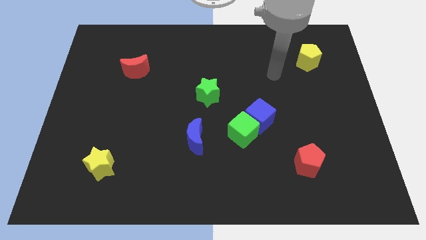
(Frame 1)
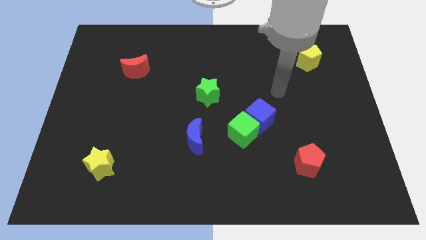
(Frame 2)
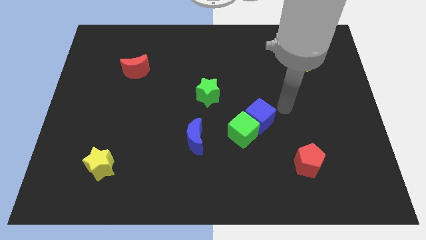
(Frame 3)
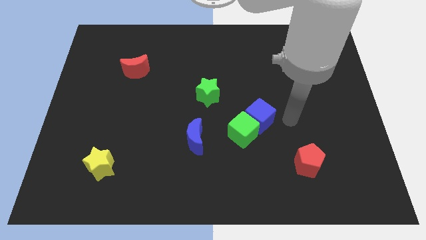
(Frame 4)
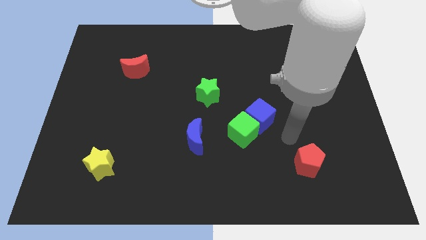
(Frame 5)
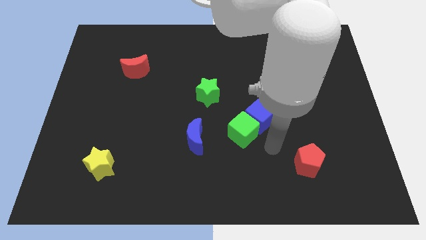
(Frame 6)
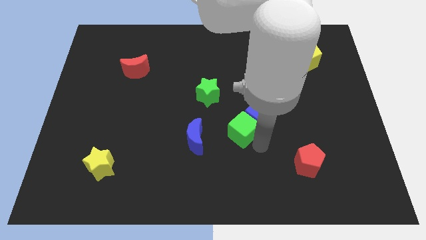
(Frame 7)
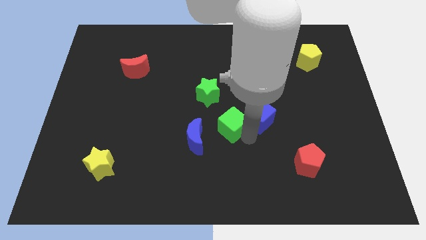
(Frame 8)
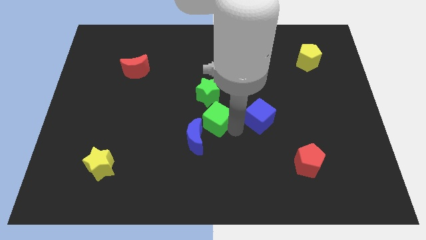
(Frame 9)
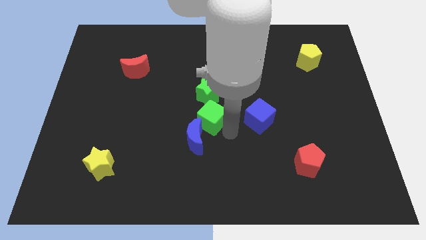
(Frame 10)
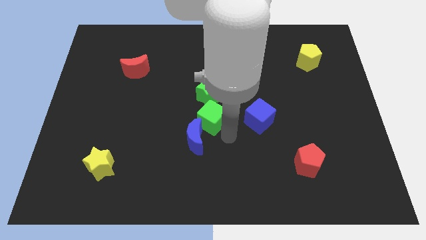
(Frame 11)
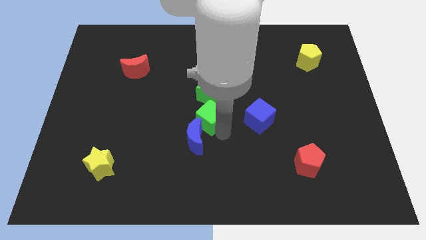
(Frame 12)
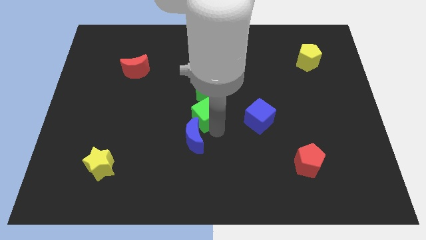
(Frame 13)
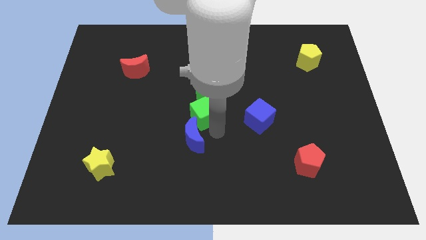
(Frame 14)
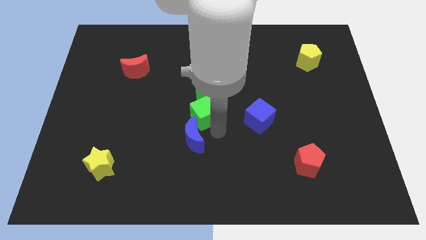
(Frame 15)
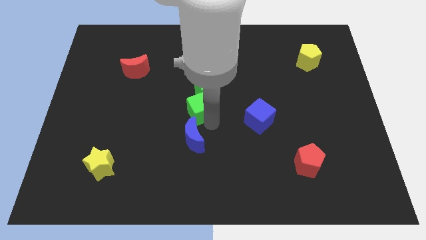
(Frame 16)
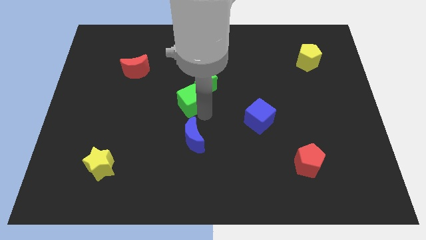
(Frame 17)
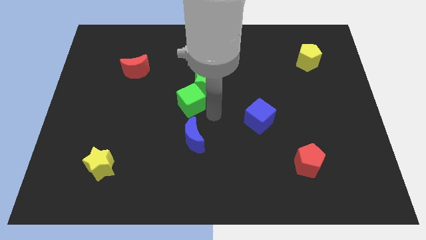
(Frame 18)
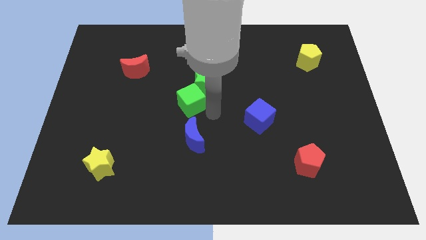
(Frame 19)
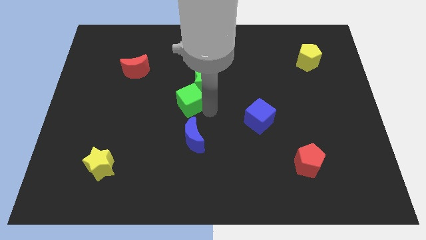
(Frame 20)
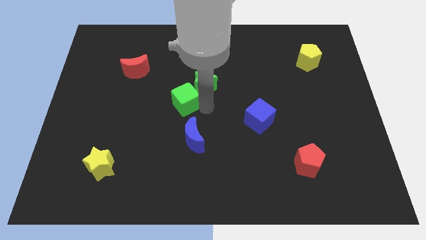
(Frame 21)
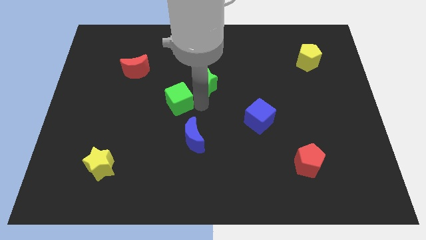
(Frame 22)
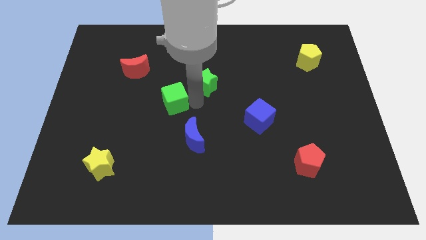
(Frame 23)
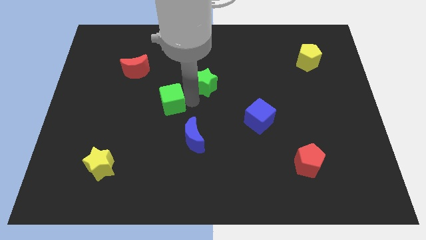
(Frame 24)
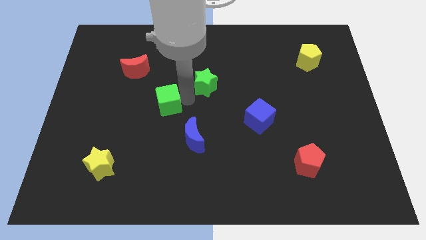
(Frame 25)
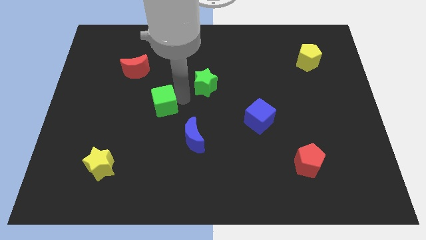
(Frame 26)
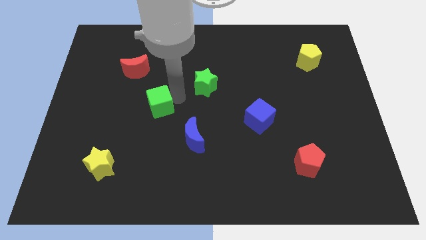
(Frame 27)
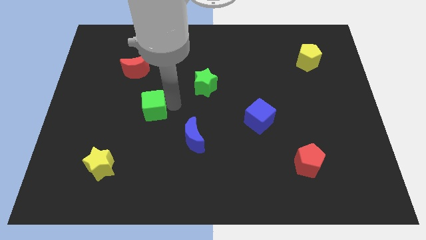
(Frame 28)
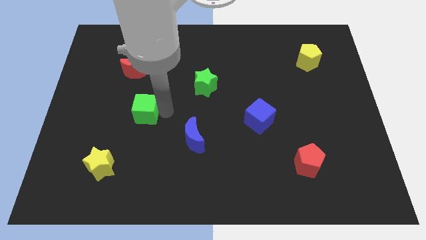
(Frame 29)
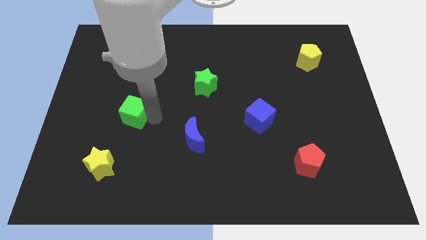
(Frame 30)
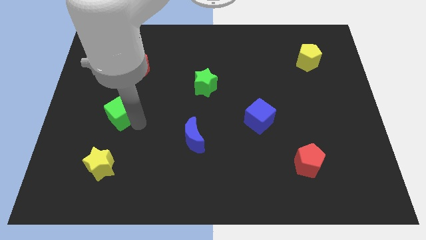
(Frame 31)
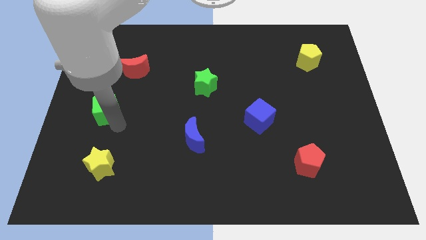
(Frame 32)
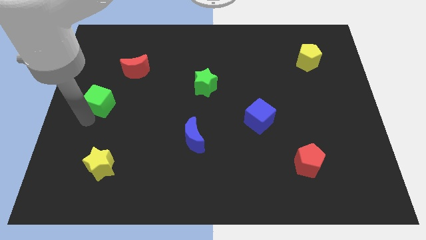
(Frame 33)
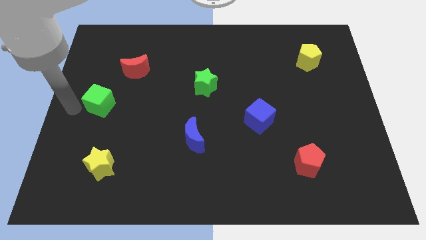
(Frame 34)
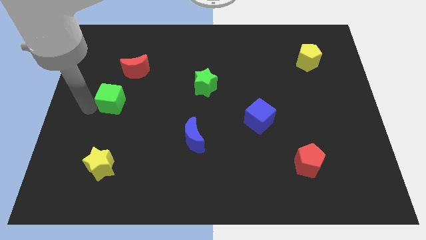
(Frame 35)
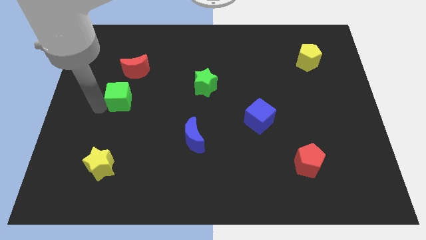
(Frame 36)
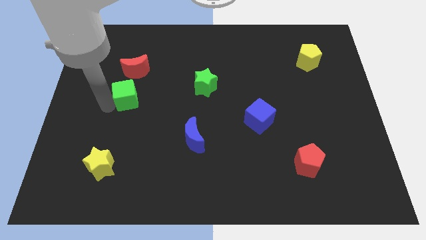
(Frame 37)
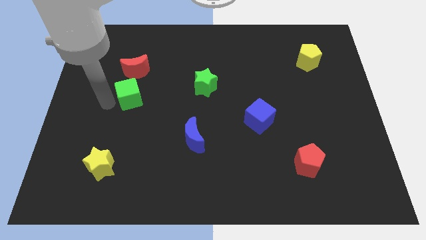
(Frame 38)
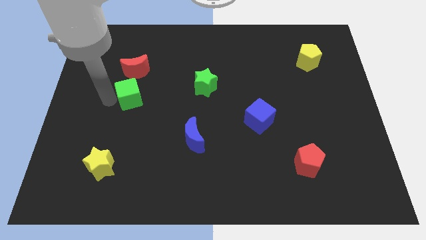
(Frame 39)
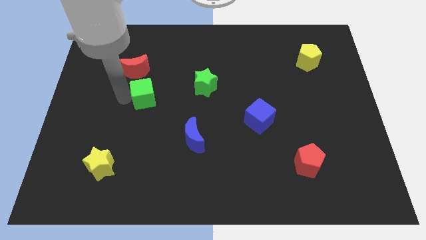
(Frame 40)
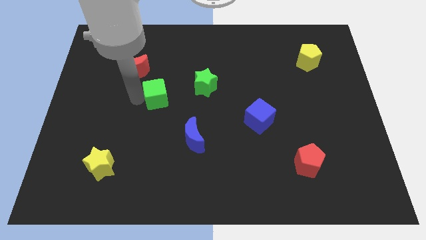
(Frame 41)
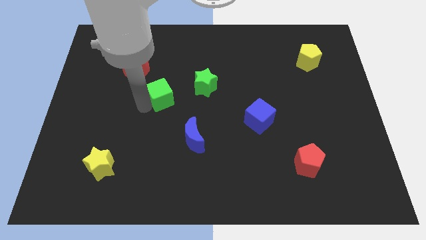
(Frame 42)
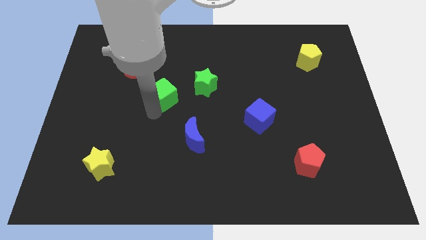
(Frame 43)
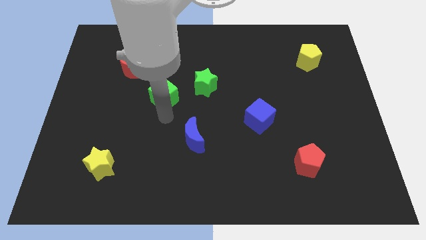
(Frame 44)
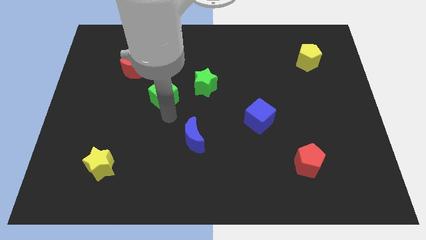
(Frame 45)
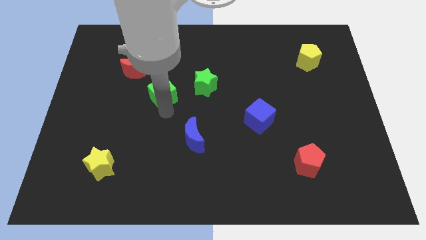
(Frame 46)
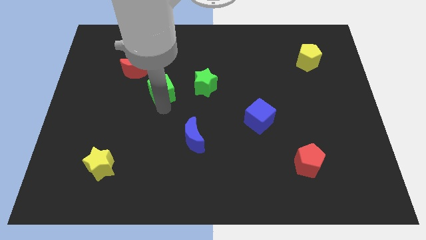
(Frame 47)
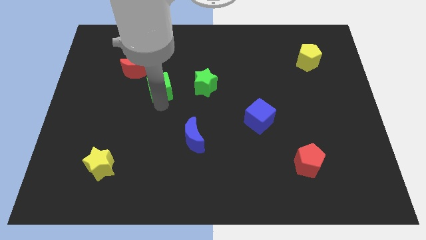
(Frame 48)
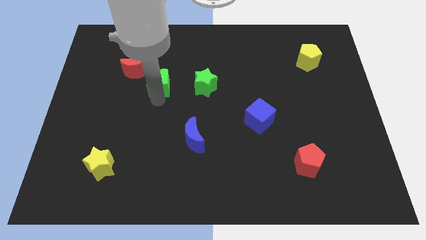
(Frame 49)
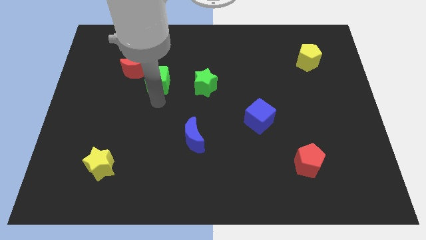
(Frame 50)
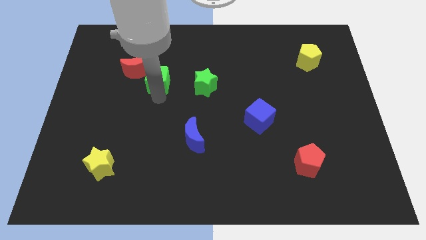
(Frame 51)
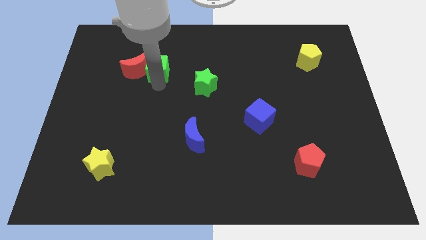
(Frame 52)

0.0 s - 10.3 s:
put the green cube to the top right of the red moon

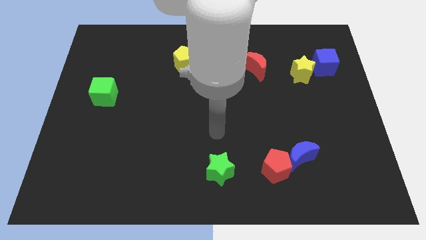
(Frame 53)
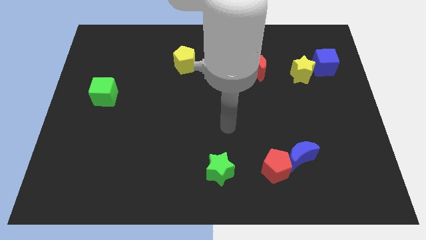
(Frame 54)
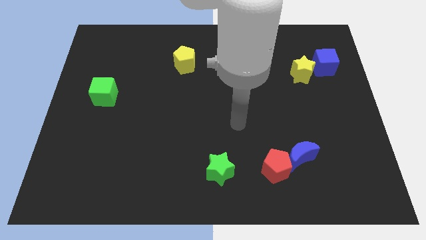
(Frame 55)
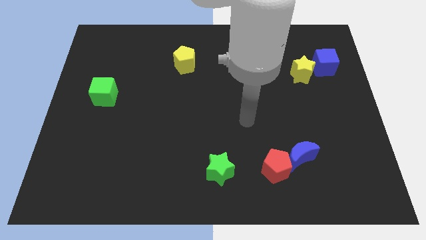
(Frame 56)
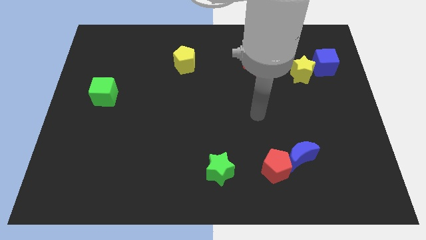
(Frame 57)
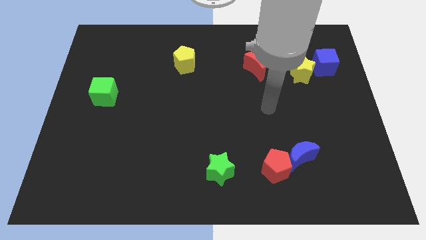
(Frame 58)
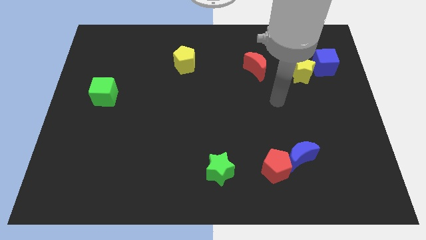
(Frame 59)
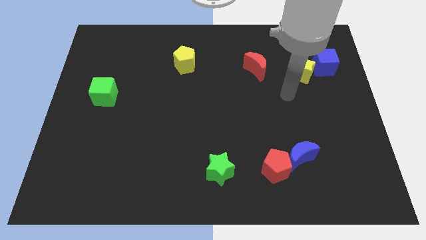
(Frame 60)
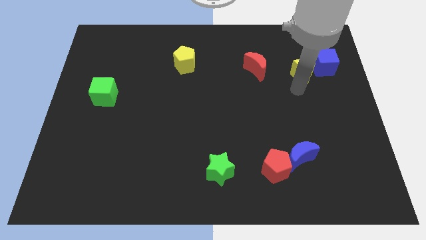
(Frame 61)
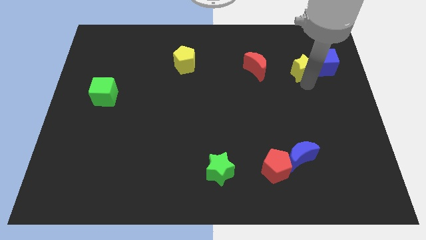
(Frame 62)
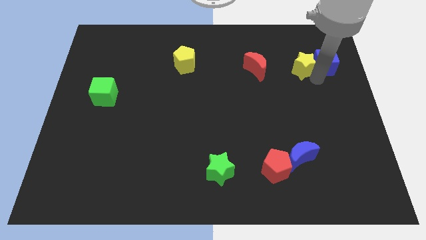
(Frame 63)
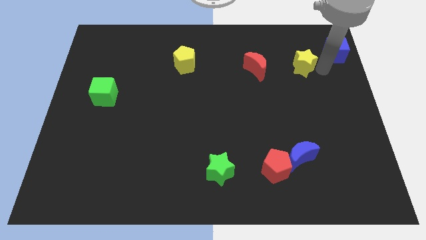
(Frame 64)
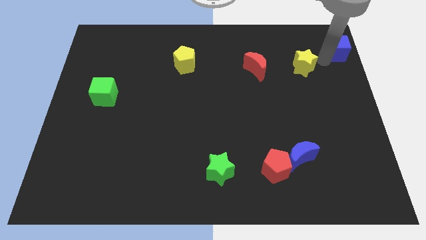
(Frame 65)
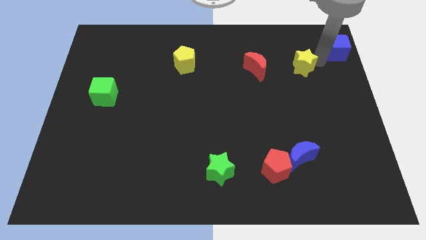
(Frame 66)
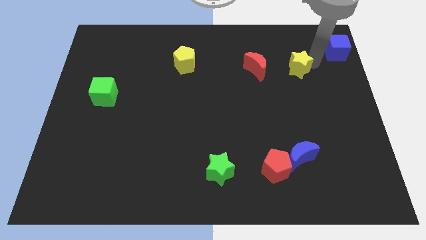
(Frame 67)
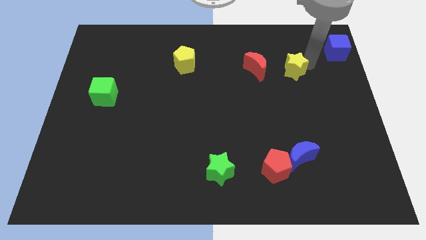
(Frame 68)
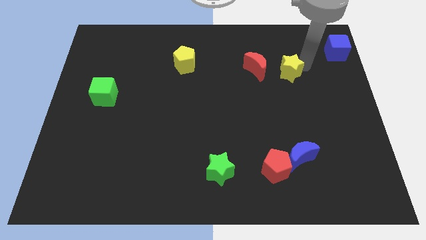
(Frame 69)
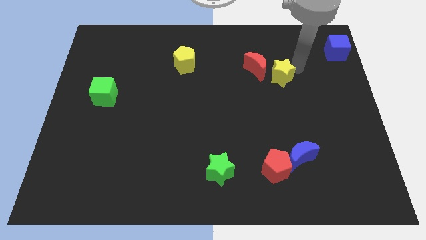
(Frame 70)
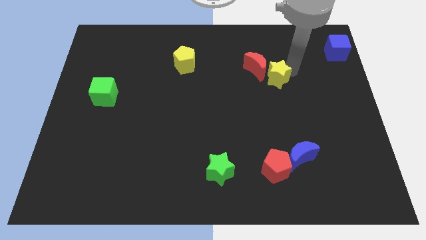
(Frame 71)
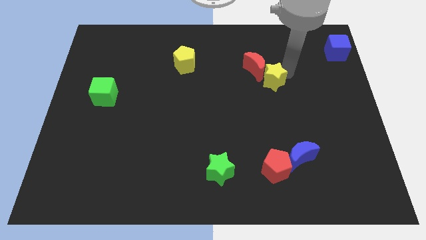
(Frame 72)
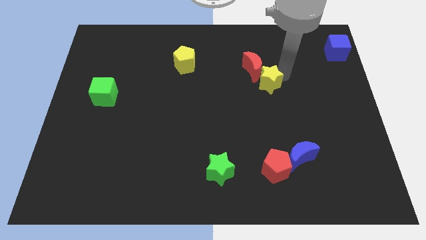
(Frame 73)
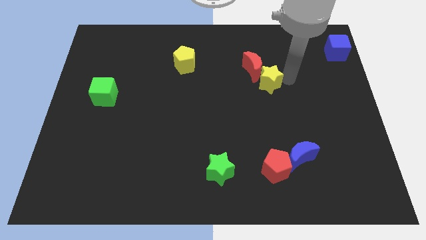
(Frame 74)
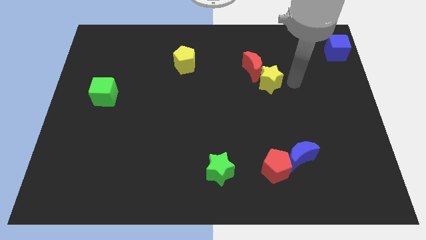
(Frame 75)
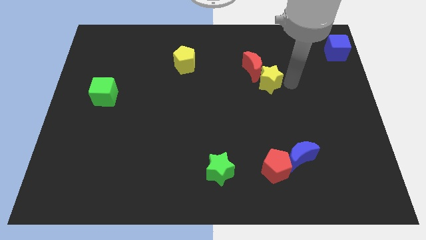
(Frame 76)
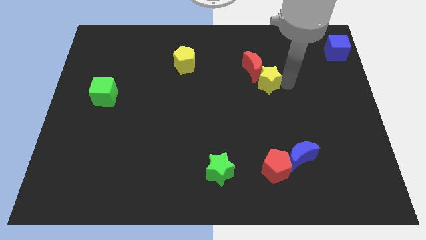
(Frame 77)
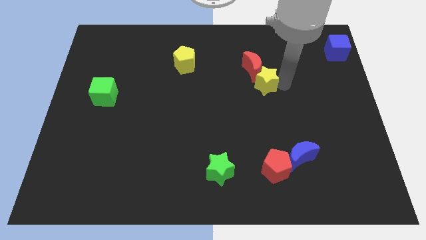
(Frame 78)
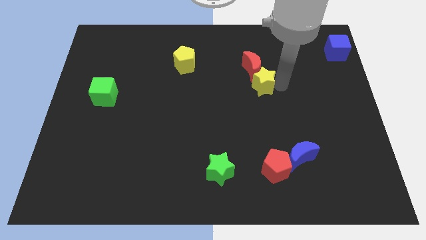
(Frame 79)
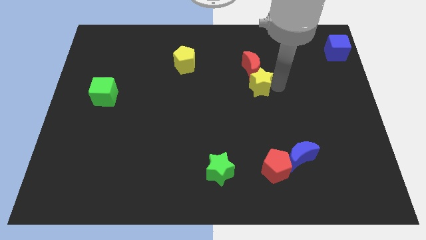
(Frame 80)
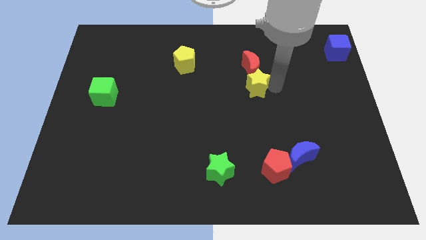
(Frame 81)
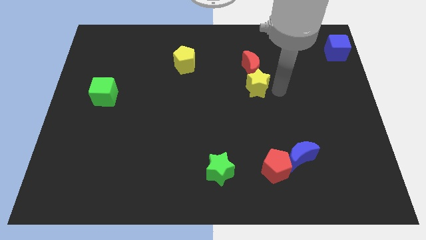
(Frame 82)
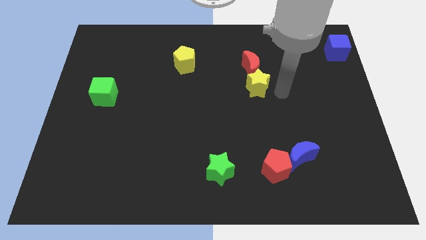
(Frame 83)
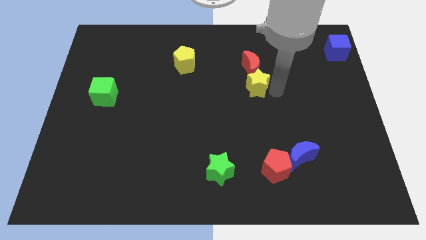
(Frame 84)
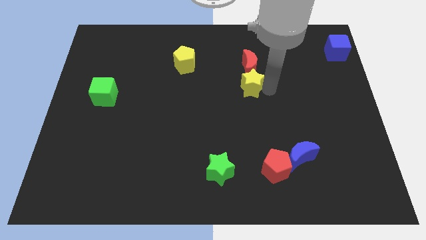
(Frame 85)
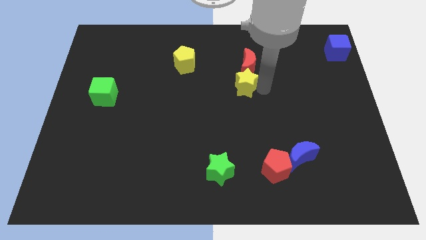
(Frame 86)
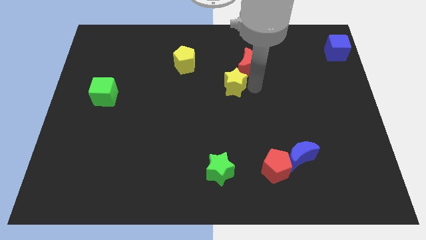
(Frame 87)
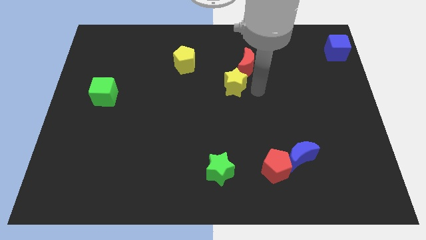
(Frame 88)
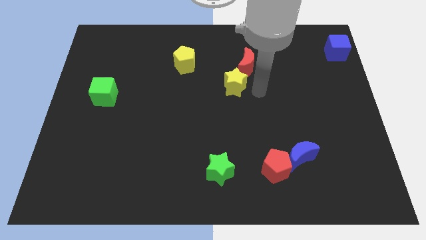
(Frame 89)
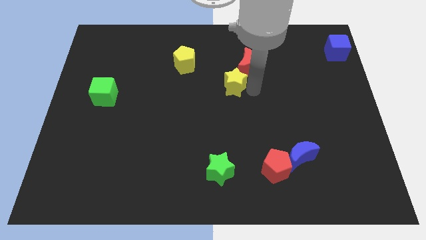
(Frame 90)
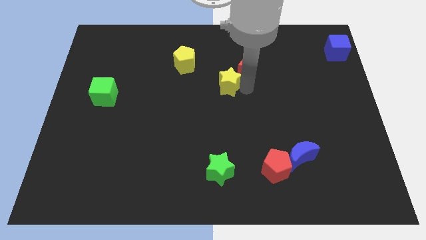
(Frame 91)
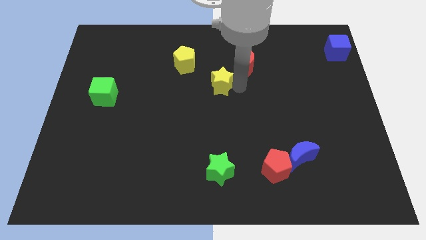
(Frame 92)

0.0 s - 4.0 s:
slide the yellow star to the bottom right of the yellow pentagon
